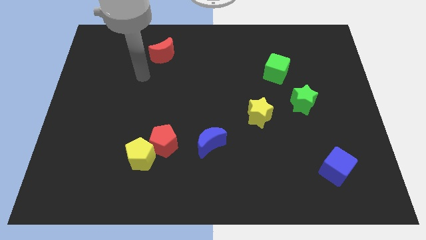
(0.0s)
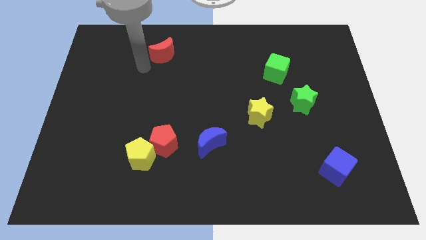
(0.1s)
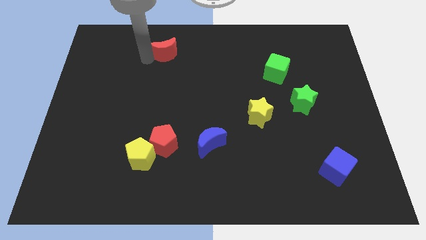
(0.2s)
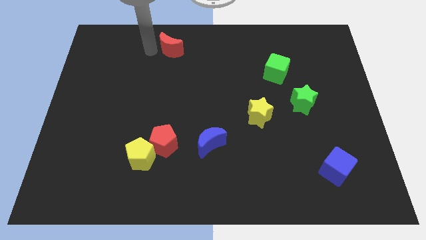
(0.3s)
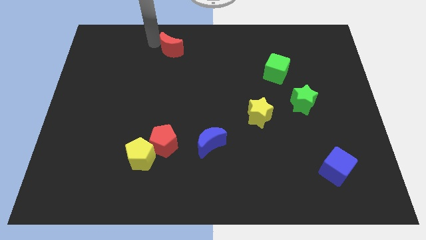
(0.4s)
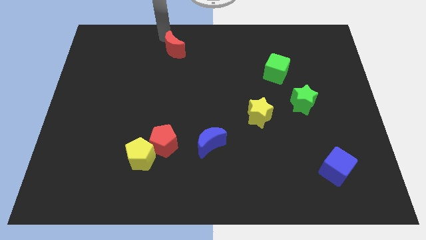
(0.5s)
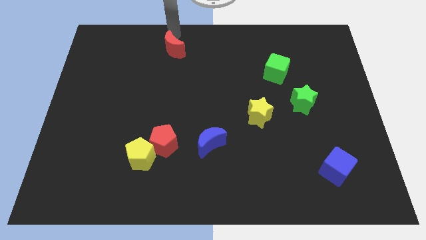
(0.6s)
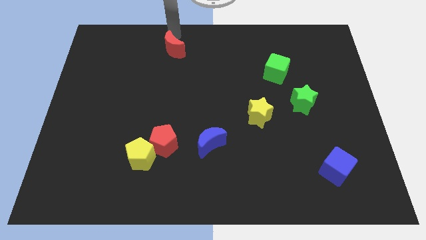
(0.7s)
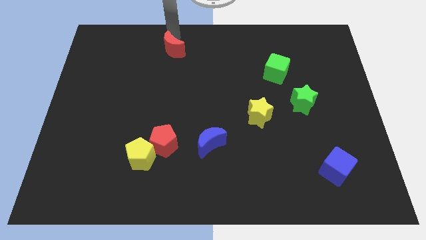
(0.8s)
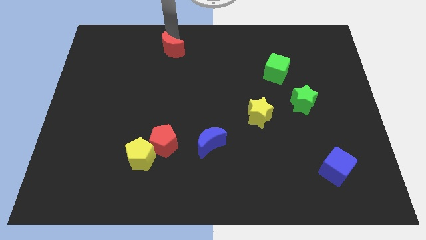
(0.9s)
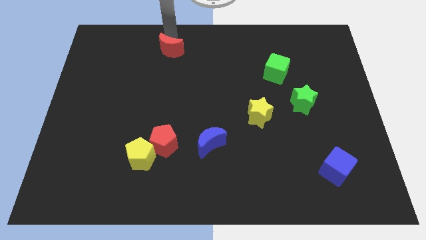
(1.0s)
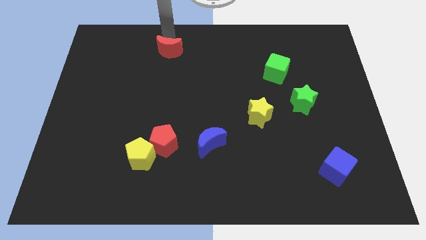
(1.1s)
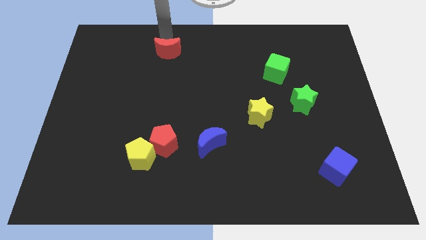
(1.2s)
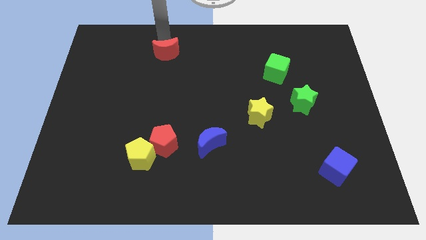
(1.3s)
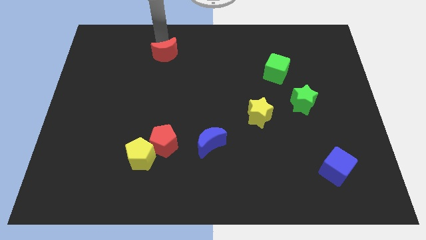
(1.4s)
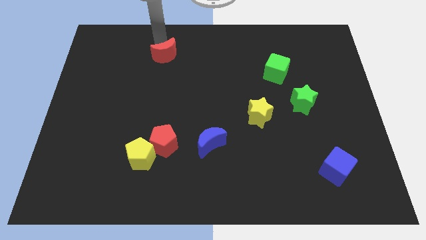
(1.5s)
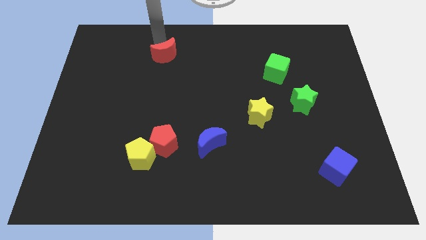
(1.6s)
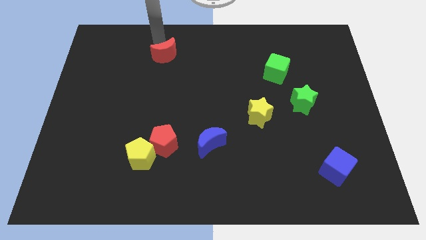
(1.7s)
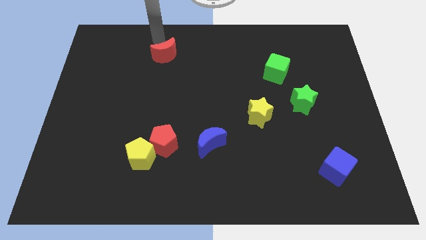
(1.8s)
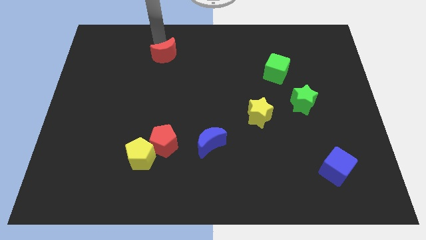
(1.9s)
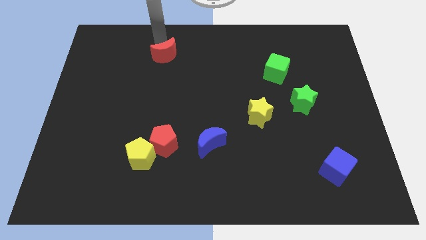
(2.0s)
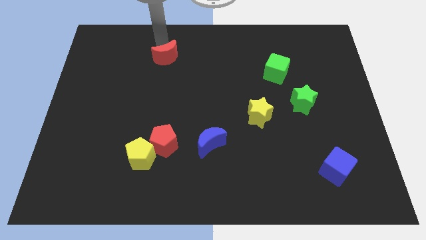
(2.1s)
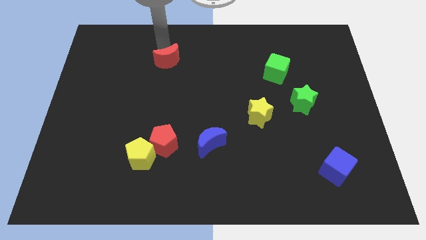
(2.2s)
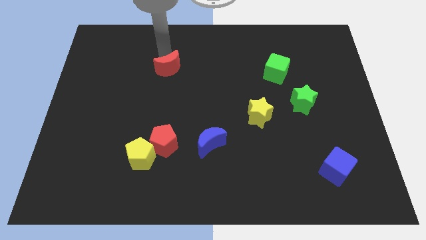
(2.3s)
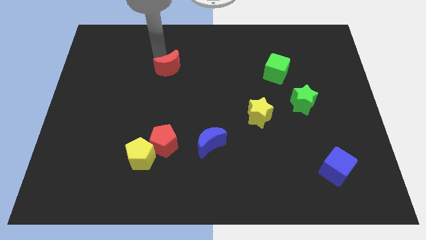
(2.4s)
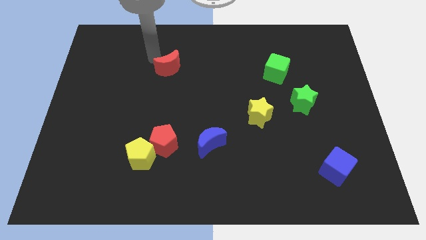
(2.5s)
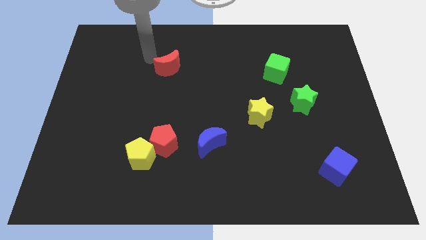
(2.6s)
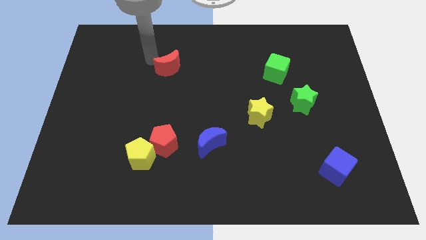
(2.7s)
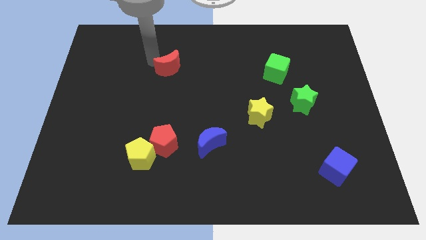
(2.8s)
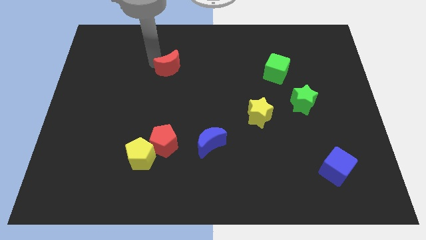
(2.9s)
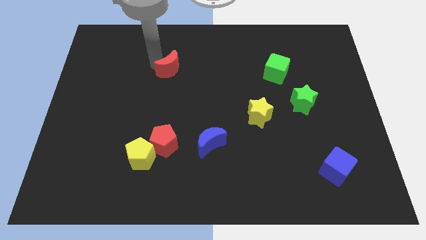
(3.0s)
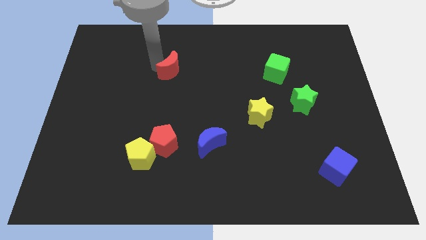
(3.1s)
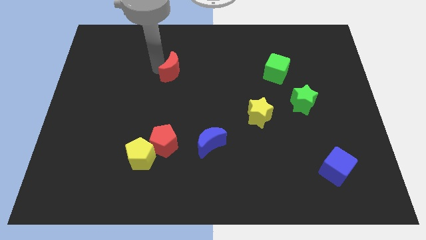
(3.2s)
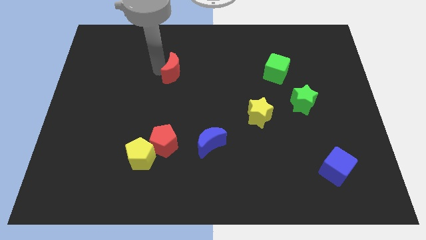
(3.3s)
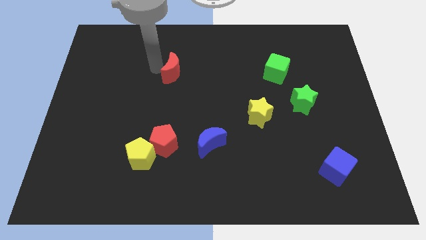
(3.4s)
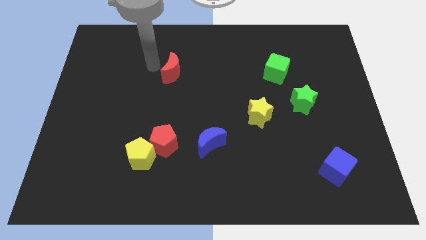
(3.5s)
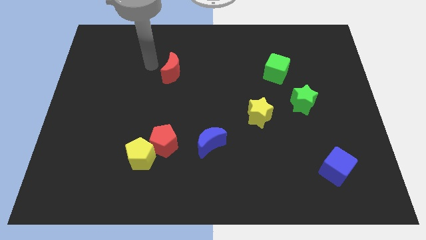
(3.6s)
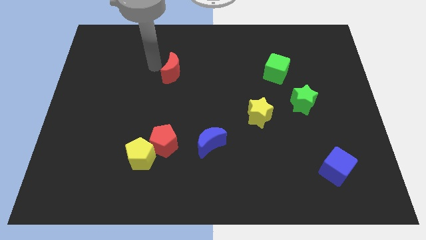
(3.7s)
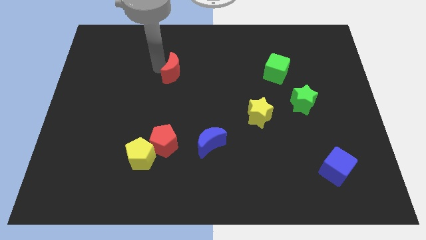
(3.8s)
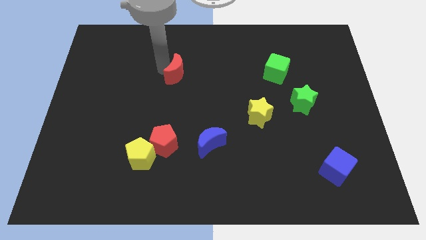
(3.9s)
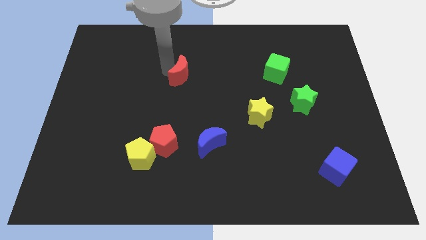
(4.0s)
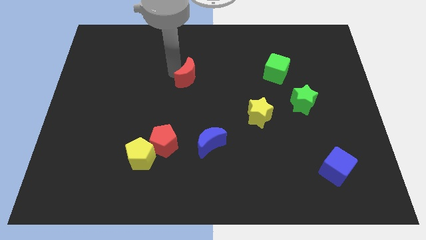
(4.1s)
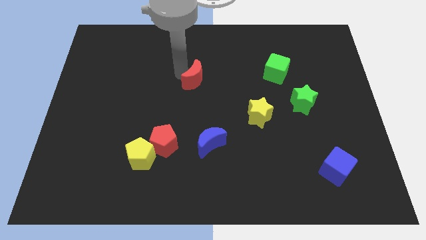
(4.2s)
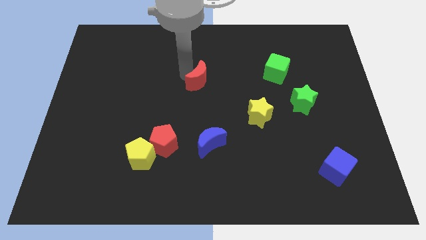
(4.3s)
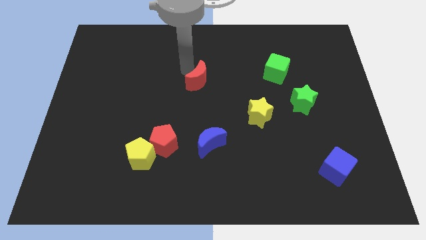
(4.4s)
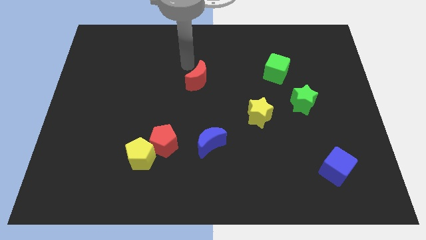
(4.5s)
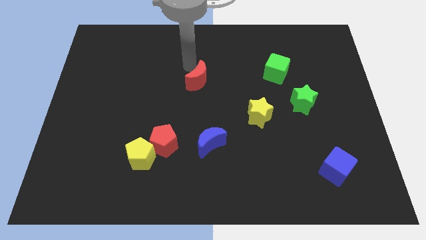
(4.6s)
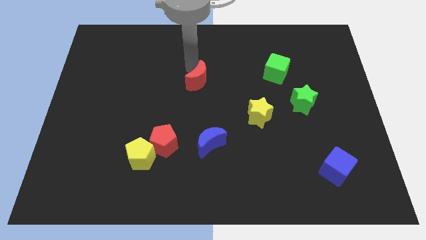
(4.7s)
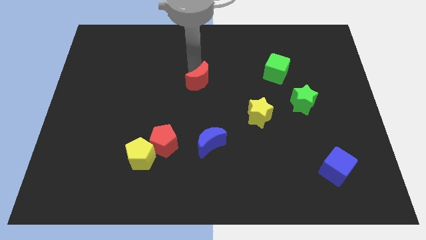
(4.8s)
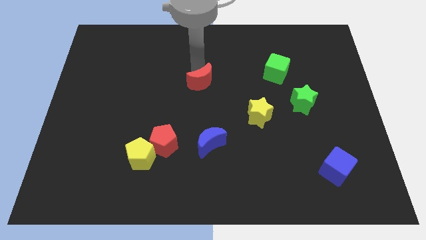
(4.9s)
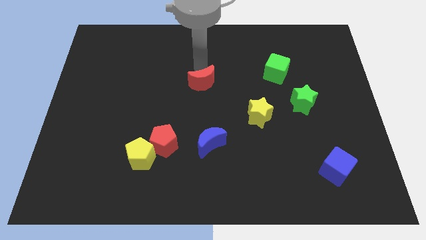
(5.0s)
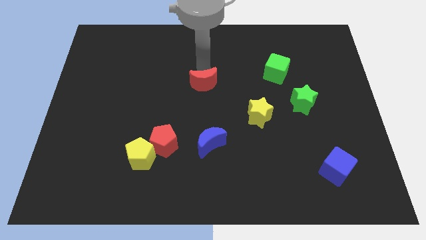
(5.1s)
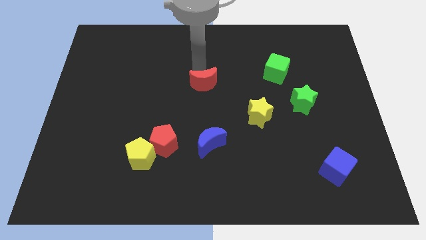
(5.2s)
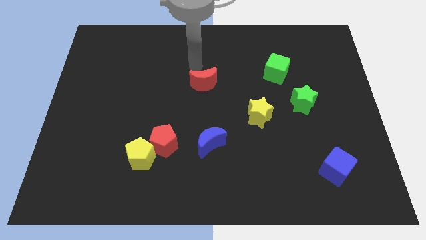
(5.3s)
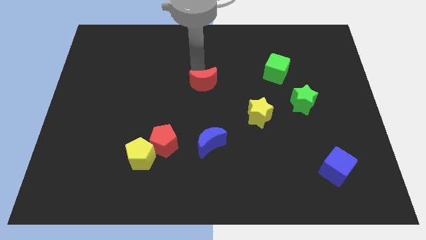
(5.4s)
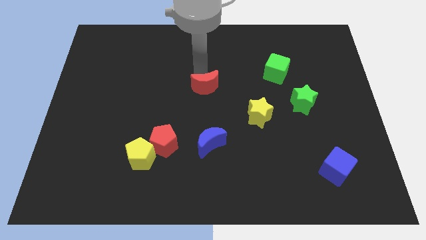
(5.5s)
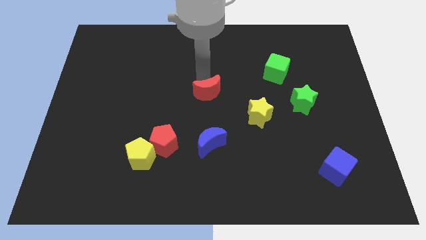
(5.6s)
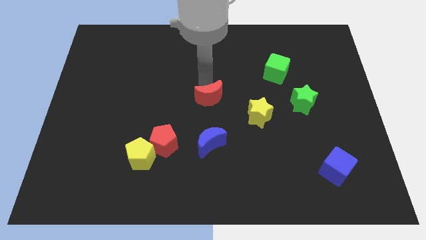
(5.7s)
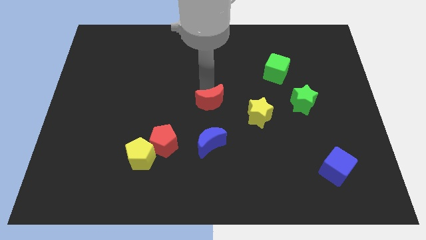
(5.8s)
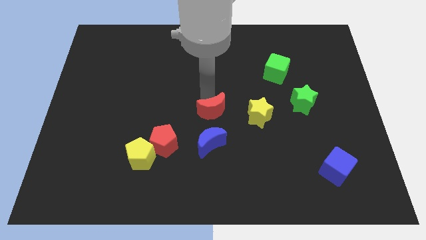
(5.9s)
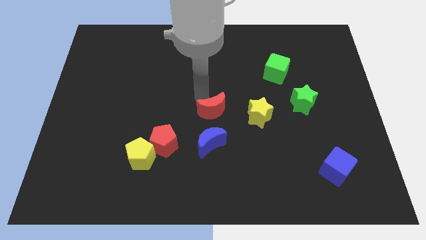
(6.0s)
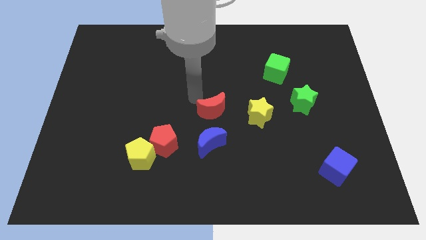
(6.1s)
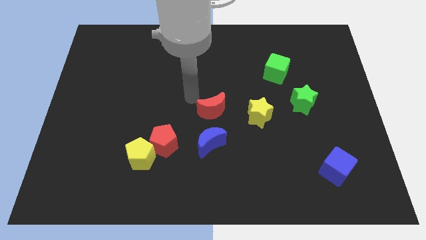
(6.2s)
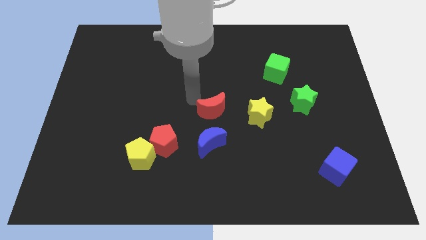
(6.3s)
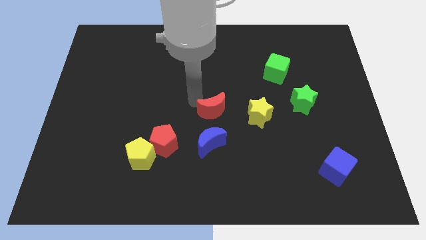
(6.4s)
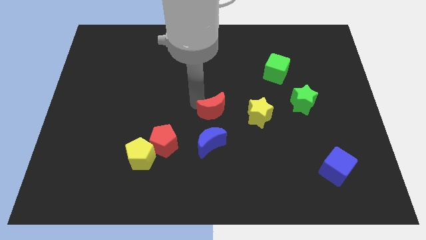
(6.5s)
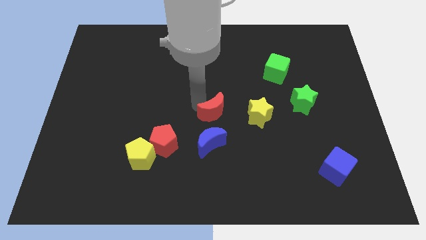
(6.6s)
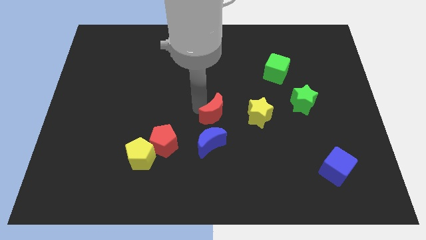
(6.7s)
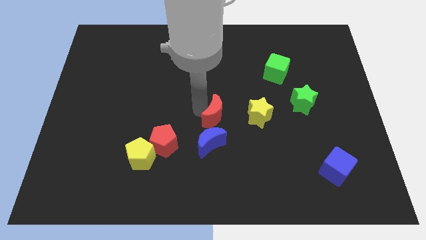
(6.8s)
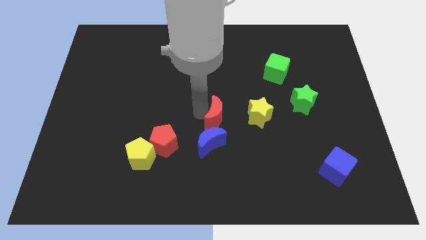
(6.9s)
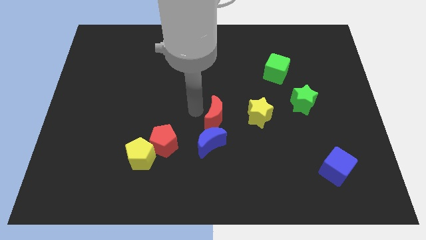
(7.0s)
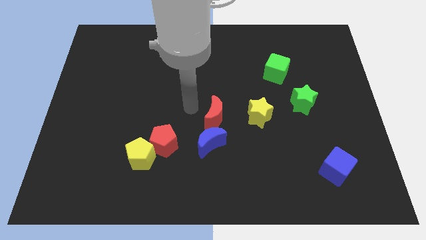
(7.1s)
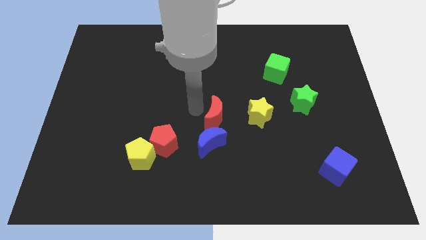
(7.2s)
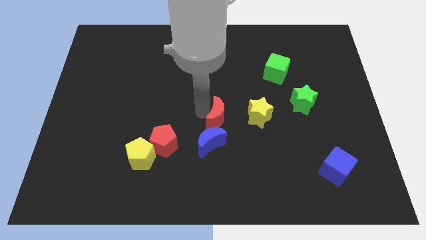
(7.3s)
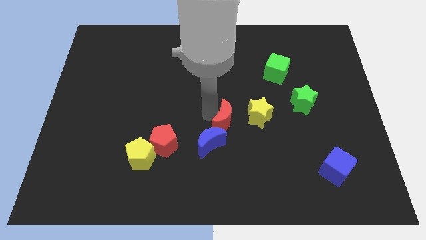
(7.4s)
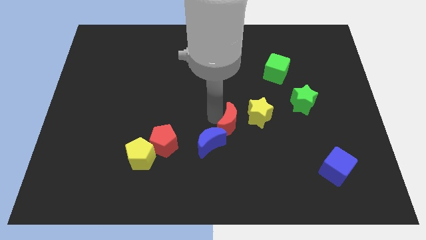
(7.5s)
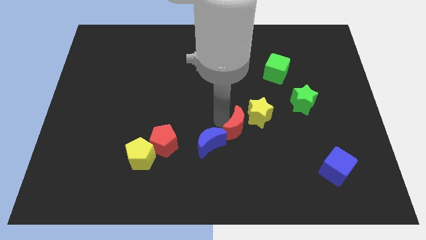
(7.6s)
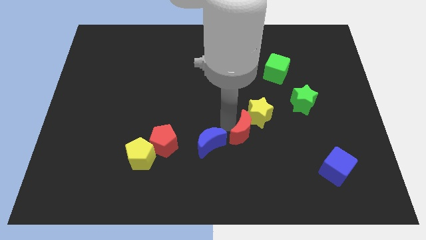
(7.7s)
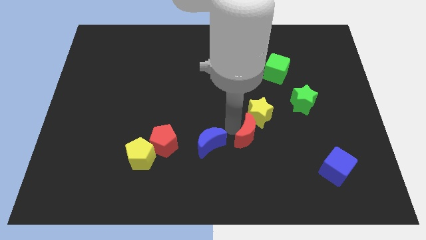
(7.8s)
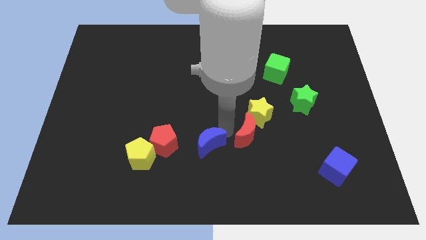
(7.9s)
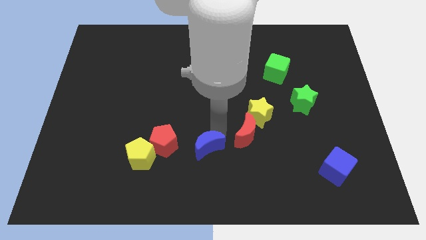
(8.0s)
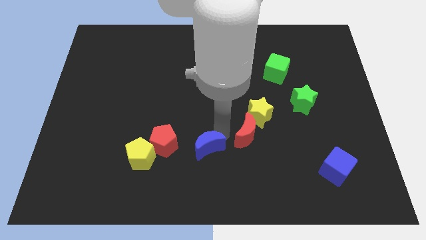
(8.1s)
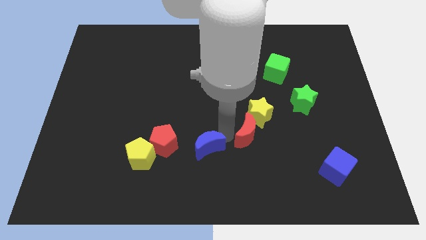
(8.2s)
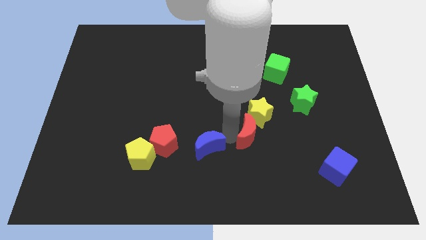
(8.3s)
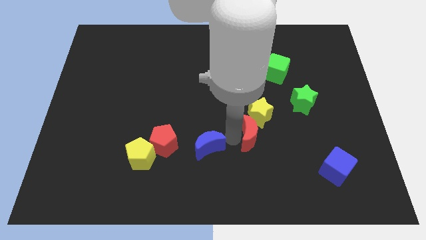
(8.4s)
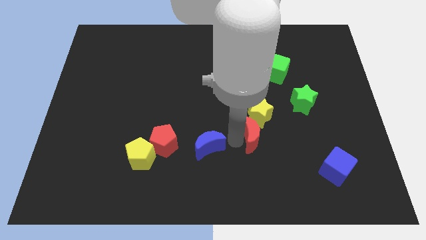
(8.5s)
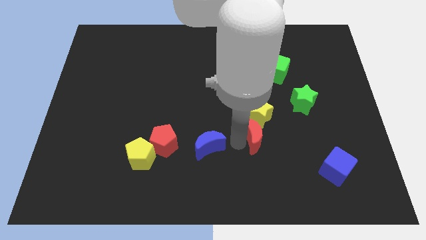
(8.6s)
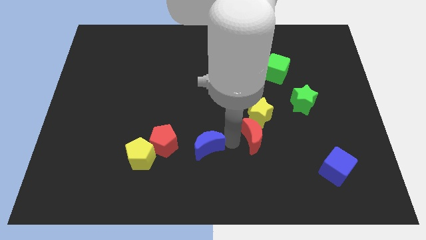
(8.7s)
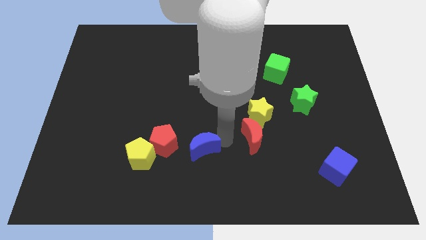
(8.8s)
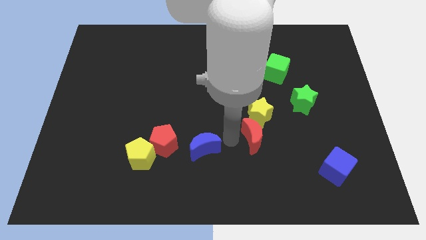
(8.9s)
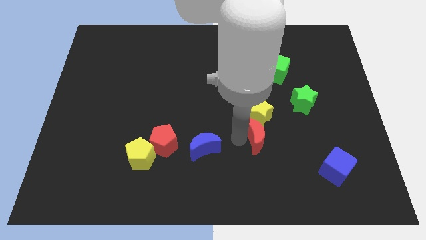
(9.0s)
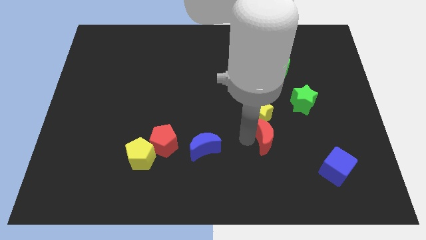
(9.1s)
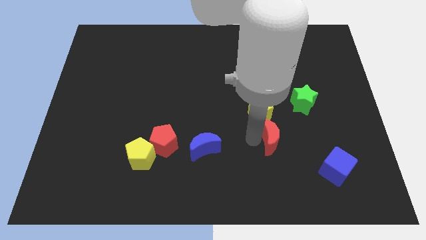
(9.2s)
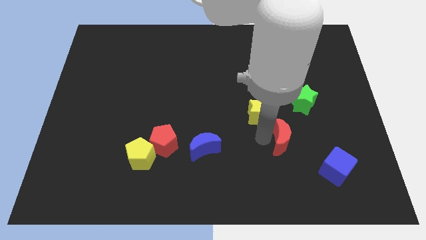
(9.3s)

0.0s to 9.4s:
push the red moon to the top left side of the blue cube
